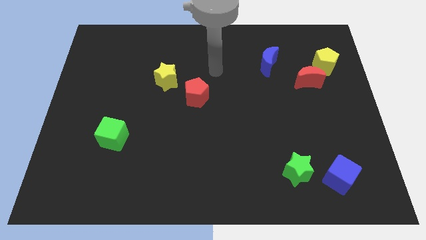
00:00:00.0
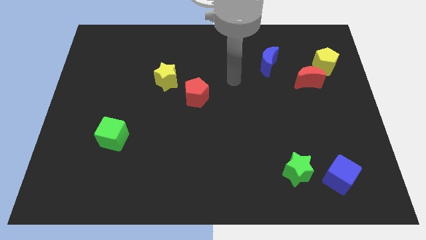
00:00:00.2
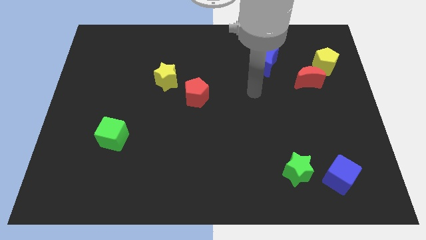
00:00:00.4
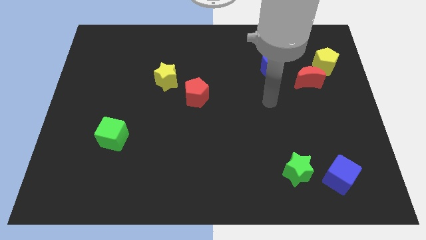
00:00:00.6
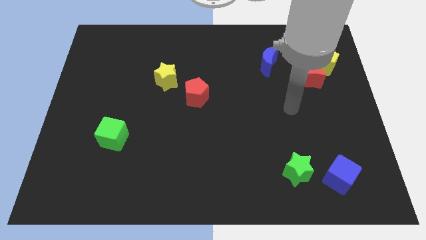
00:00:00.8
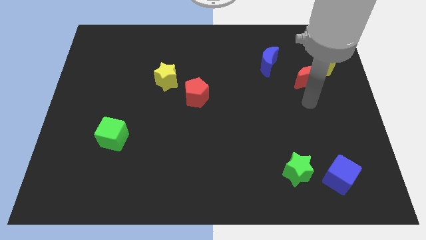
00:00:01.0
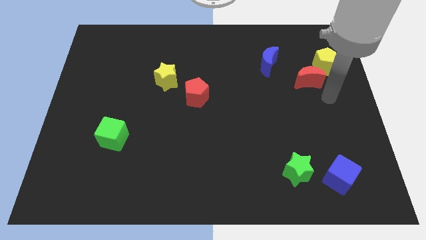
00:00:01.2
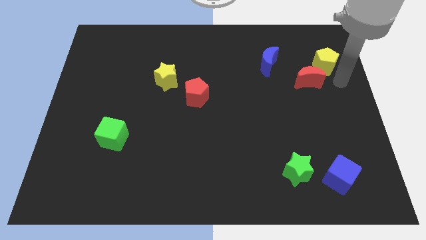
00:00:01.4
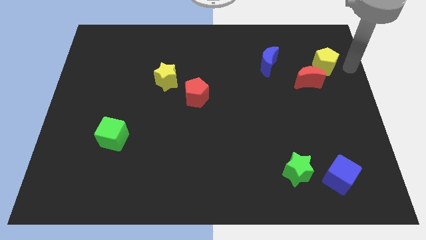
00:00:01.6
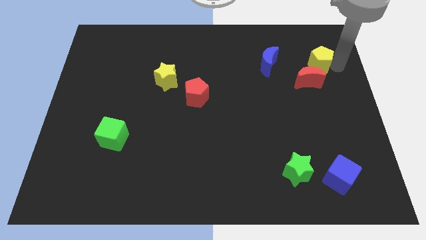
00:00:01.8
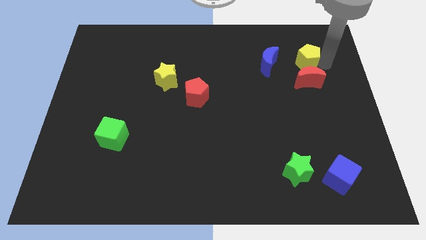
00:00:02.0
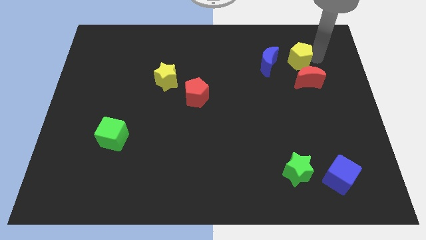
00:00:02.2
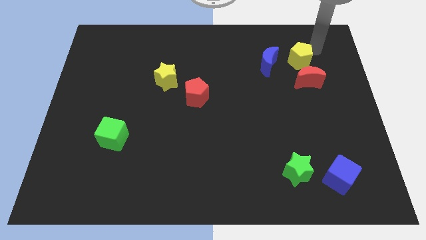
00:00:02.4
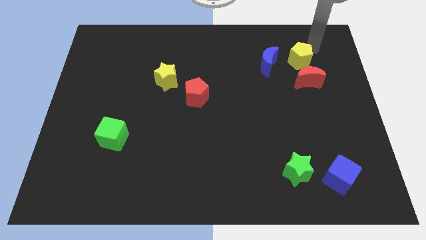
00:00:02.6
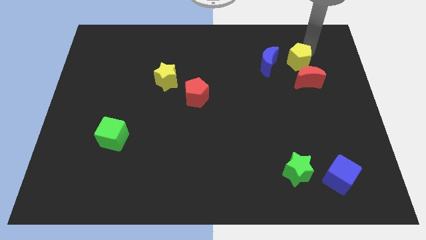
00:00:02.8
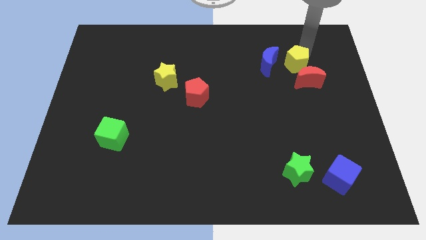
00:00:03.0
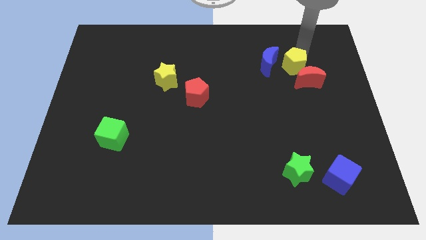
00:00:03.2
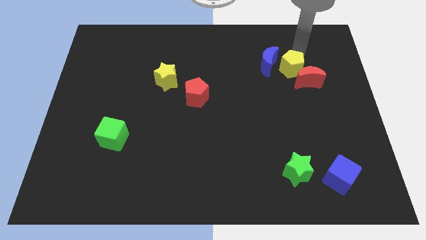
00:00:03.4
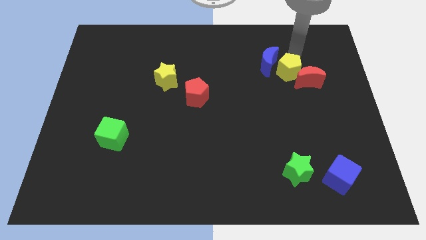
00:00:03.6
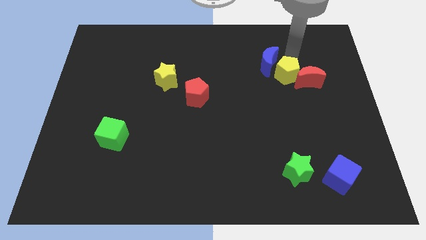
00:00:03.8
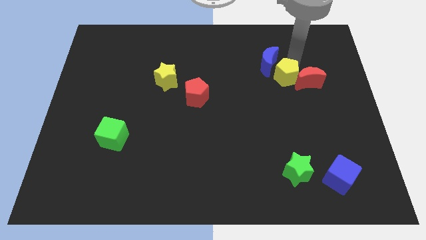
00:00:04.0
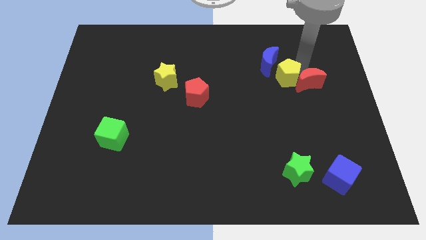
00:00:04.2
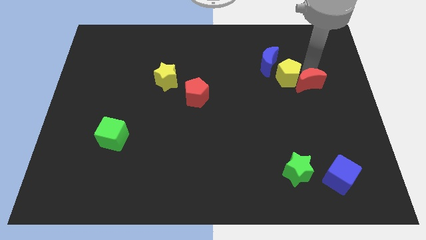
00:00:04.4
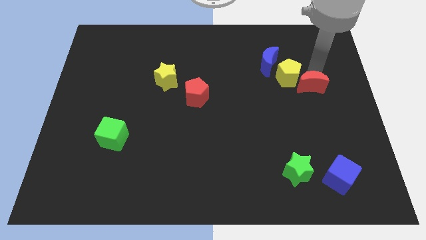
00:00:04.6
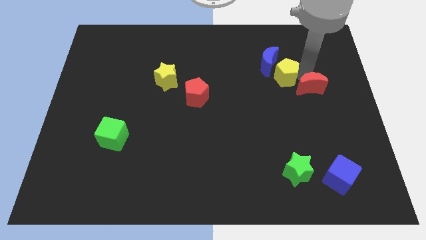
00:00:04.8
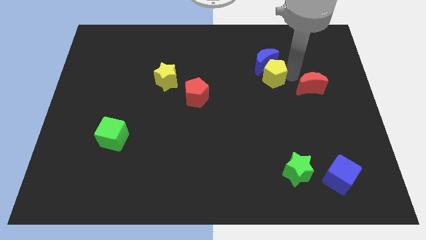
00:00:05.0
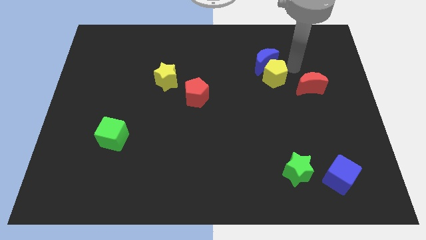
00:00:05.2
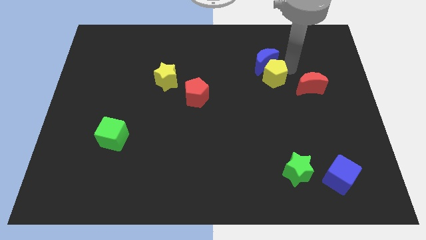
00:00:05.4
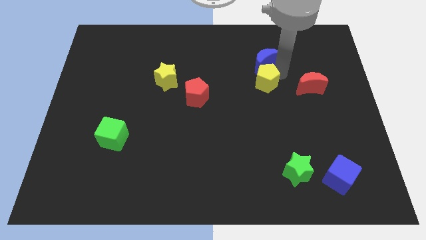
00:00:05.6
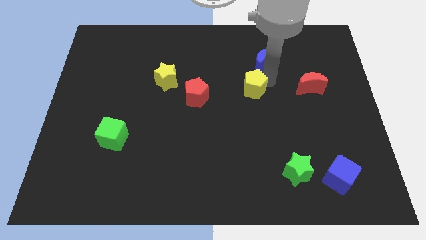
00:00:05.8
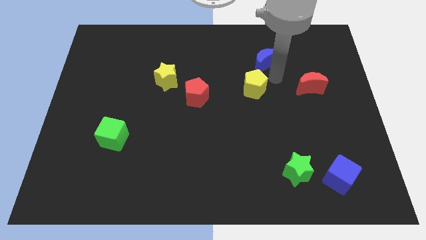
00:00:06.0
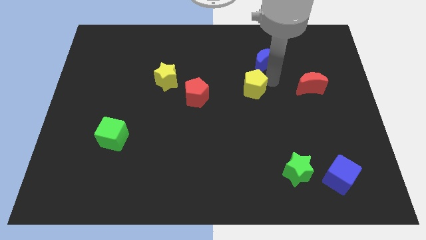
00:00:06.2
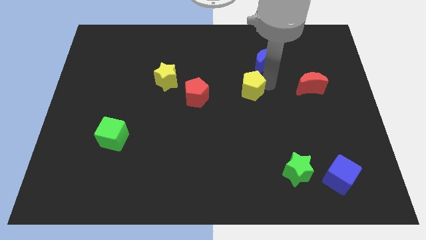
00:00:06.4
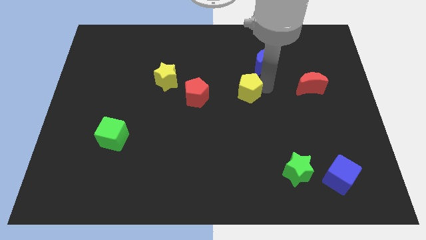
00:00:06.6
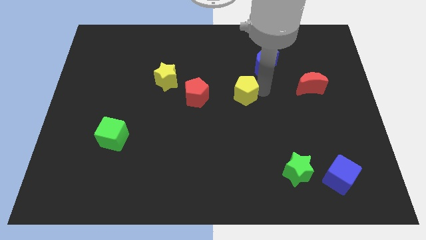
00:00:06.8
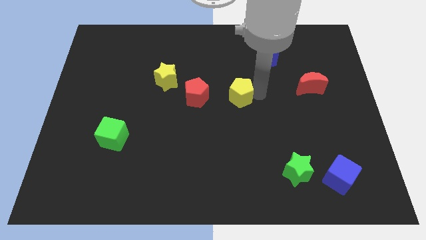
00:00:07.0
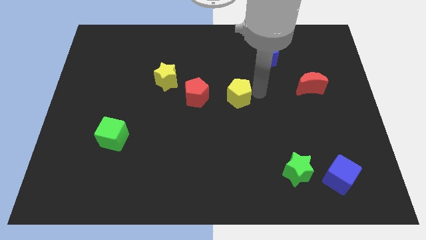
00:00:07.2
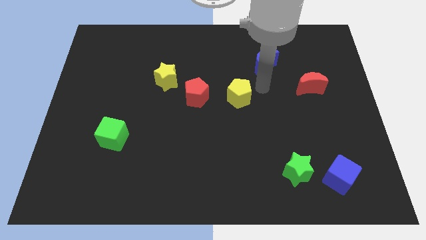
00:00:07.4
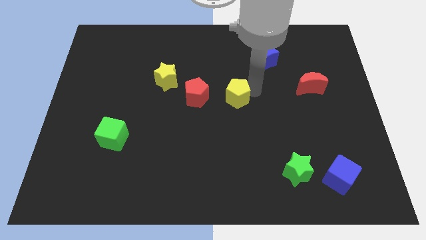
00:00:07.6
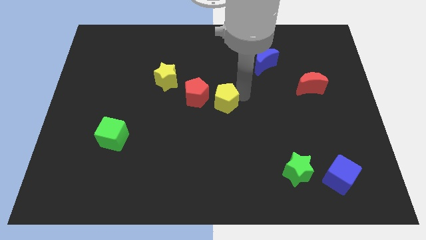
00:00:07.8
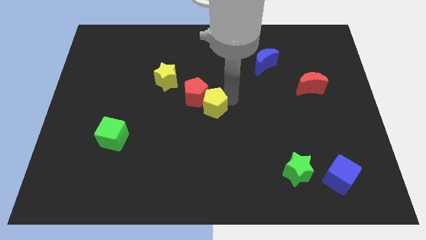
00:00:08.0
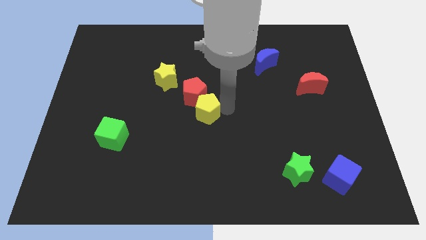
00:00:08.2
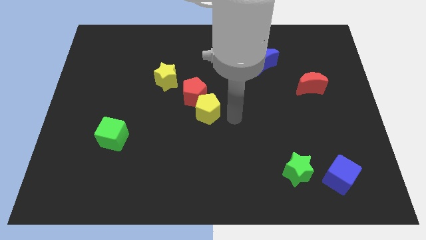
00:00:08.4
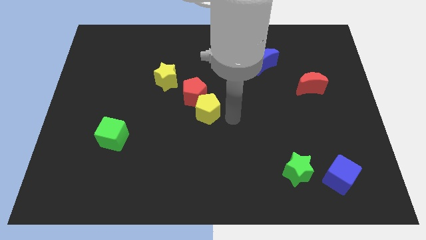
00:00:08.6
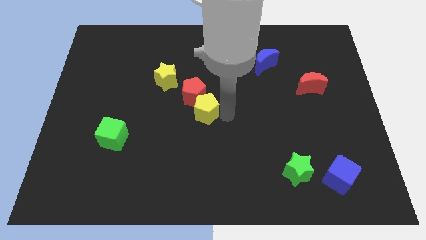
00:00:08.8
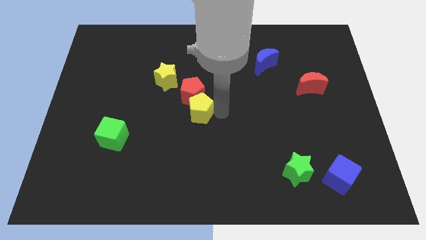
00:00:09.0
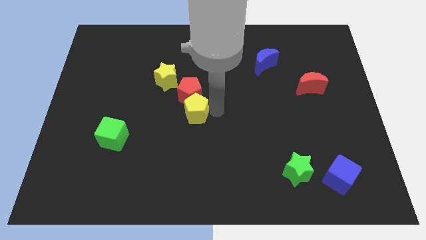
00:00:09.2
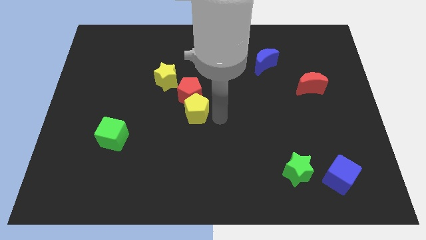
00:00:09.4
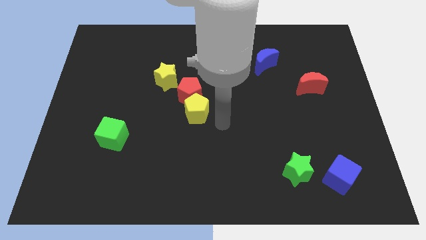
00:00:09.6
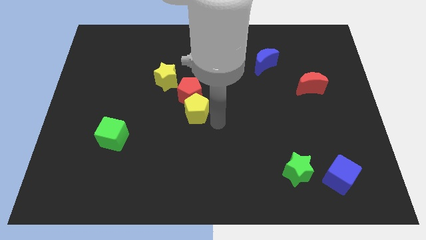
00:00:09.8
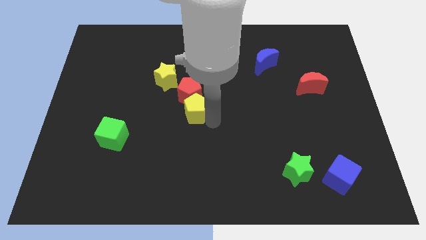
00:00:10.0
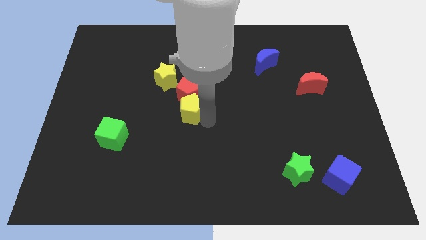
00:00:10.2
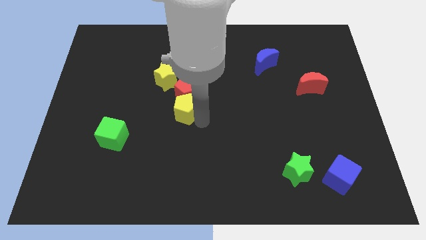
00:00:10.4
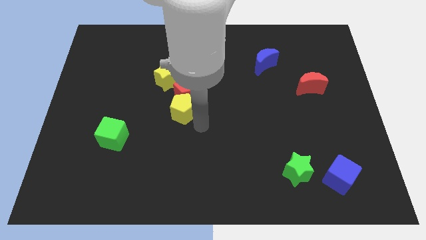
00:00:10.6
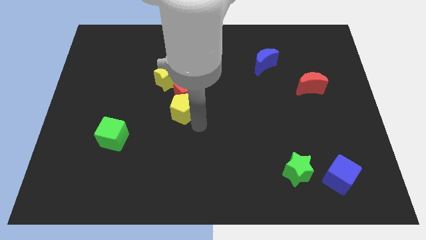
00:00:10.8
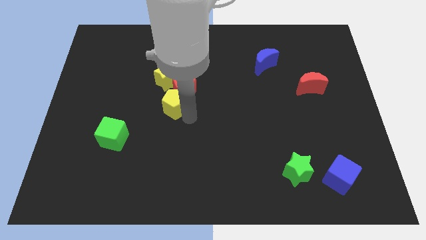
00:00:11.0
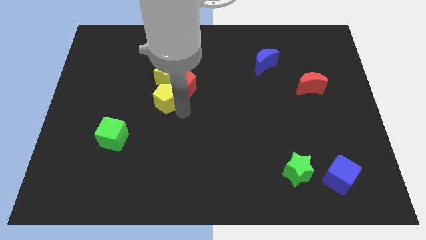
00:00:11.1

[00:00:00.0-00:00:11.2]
move the yellow pentagon just left of the red pentagon
